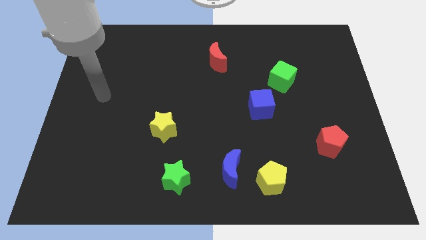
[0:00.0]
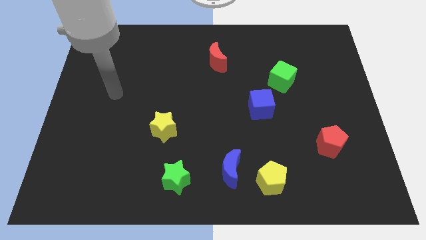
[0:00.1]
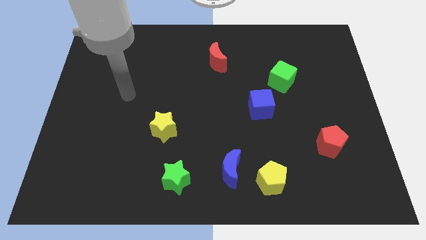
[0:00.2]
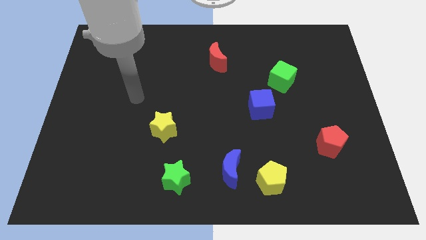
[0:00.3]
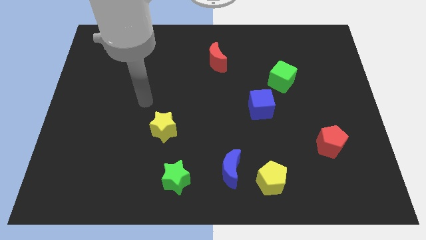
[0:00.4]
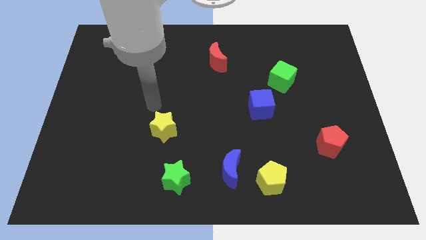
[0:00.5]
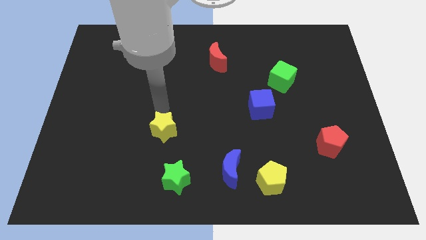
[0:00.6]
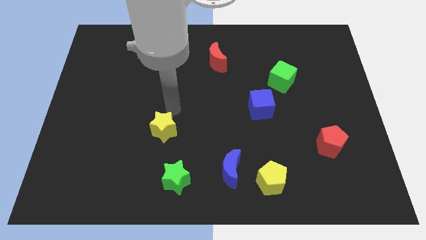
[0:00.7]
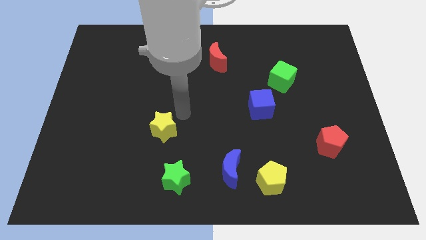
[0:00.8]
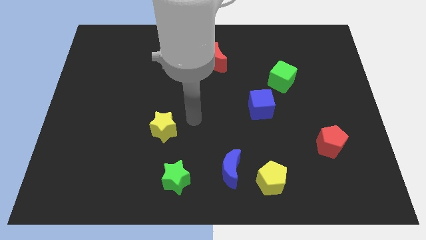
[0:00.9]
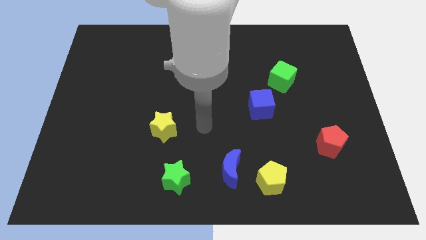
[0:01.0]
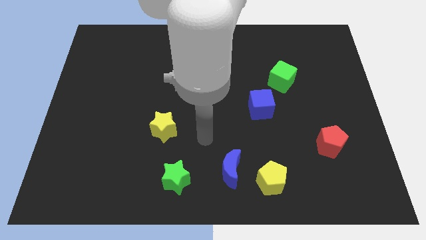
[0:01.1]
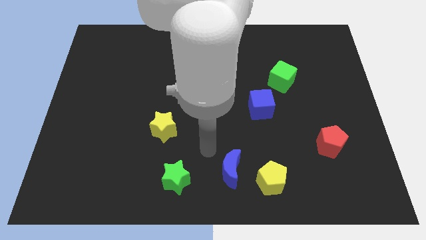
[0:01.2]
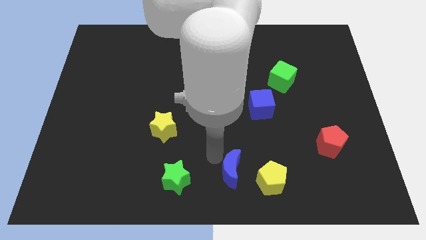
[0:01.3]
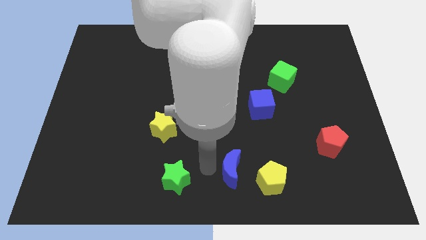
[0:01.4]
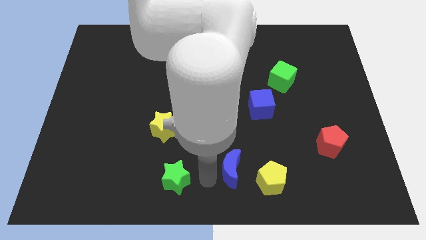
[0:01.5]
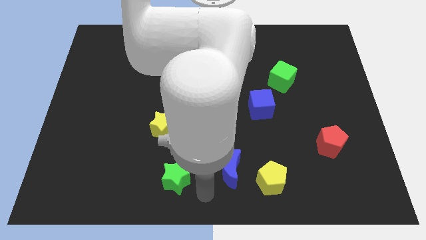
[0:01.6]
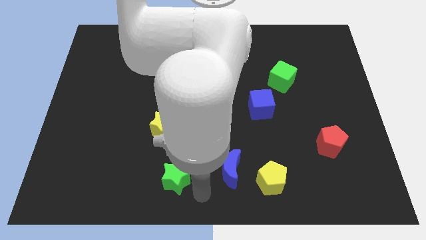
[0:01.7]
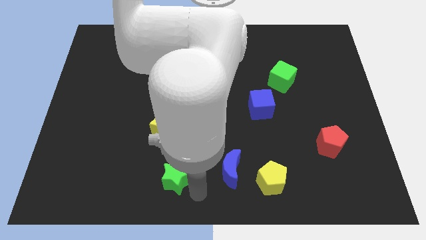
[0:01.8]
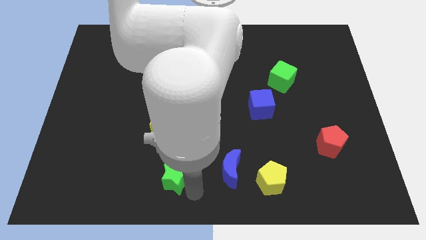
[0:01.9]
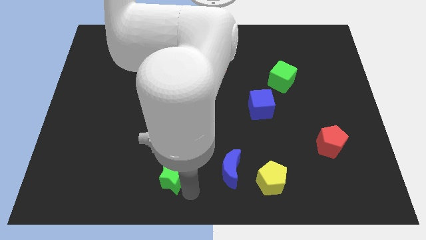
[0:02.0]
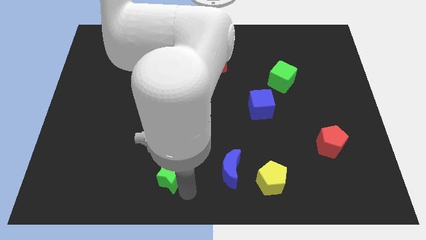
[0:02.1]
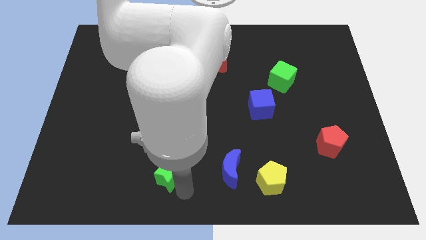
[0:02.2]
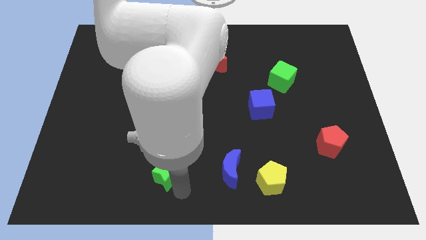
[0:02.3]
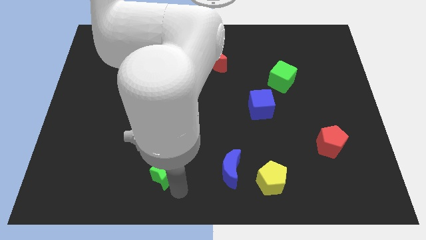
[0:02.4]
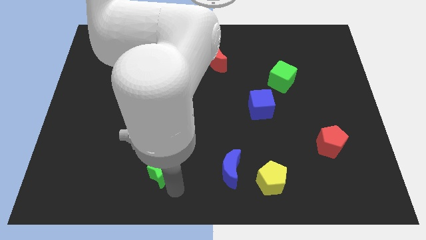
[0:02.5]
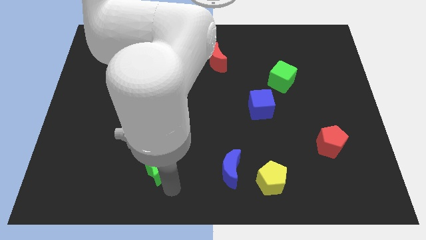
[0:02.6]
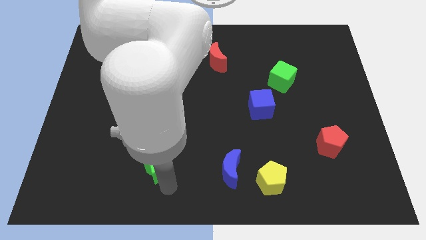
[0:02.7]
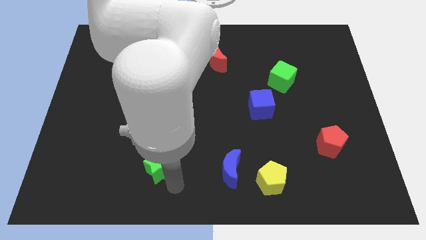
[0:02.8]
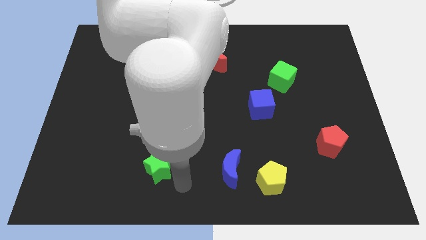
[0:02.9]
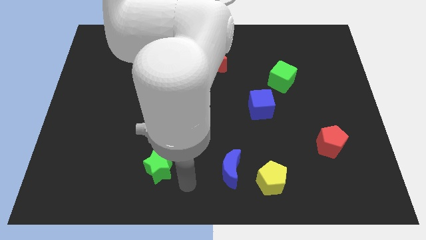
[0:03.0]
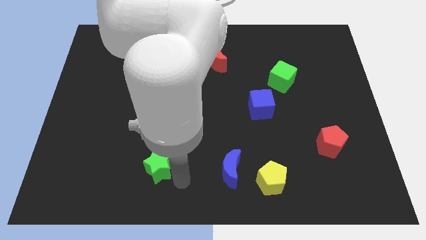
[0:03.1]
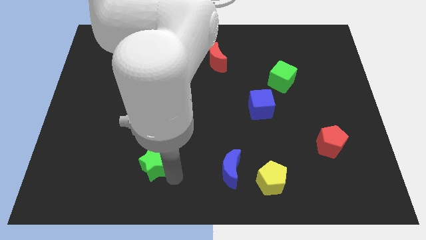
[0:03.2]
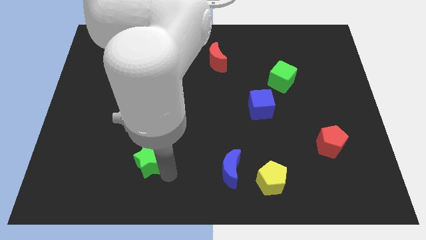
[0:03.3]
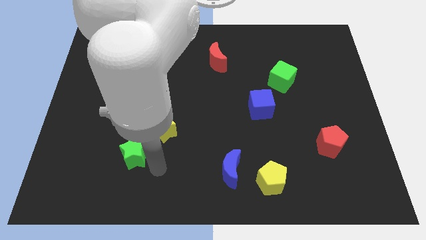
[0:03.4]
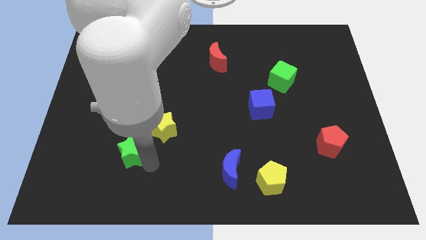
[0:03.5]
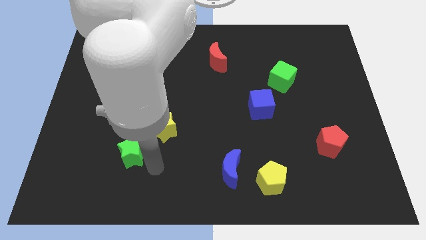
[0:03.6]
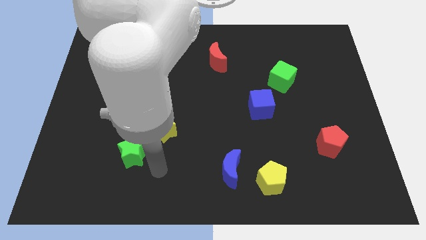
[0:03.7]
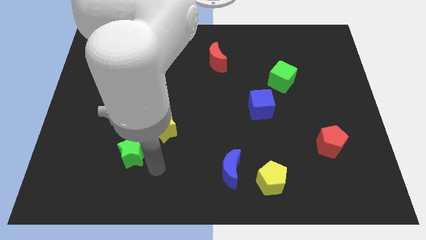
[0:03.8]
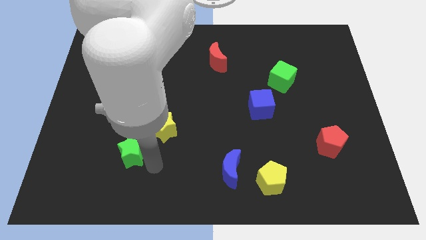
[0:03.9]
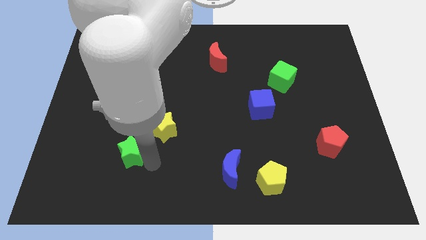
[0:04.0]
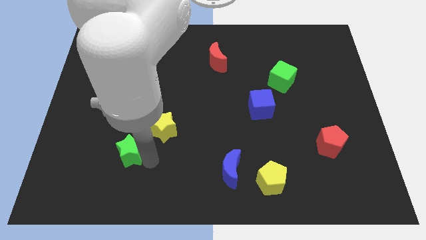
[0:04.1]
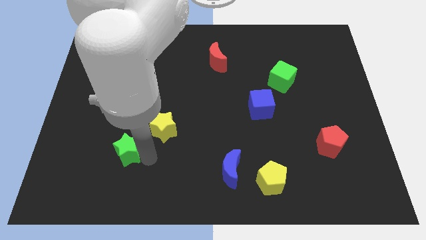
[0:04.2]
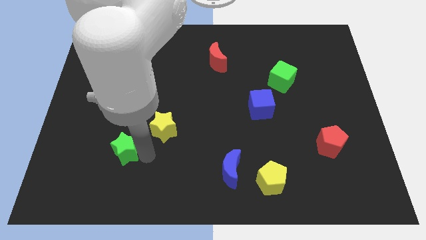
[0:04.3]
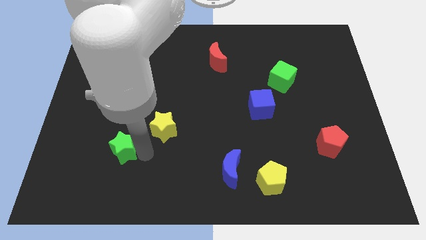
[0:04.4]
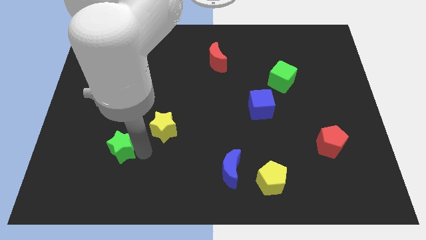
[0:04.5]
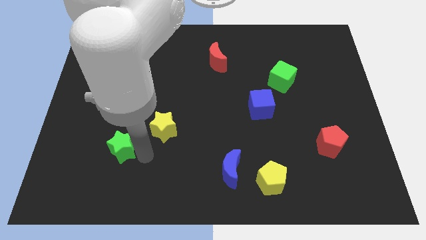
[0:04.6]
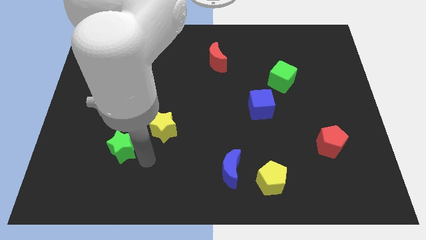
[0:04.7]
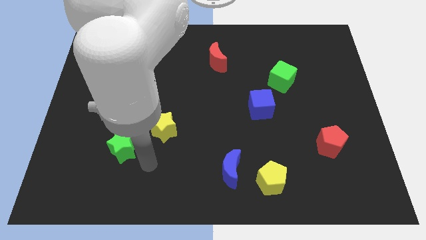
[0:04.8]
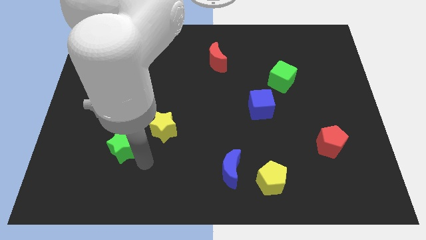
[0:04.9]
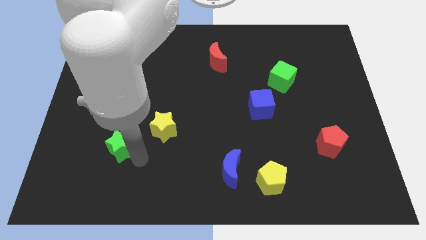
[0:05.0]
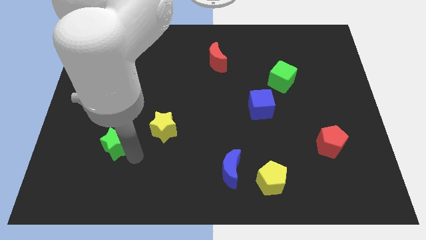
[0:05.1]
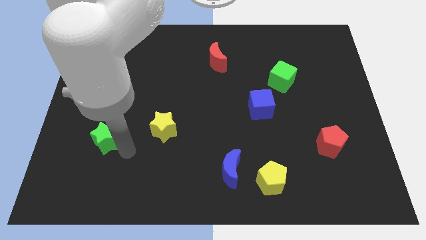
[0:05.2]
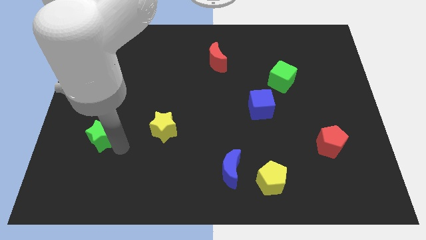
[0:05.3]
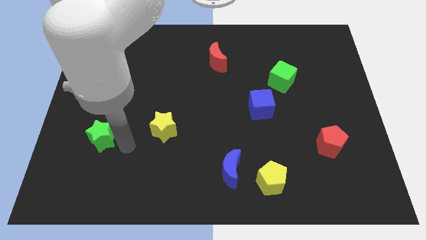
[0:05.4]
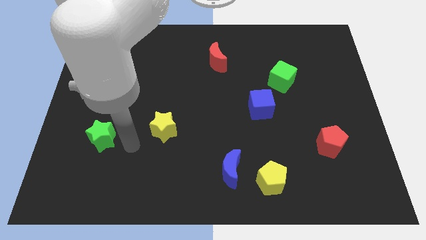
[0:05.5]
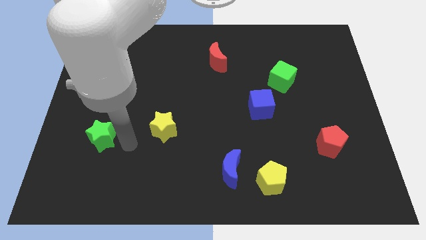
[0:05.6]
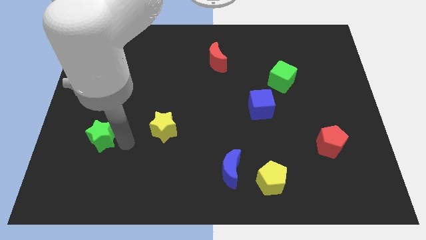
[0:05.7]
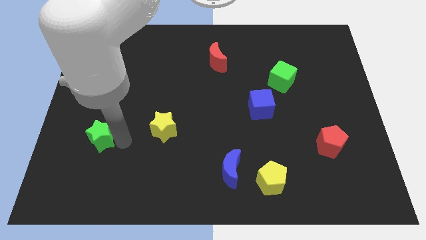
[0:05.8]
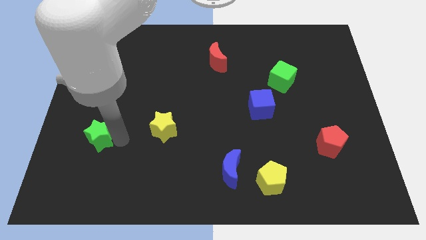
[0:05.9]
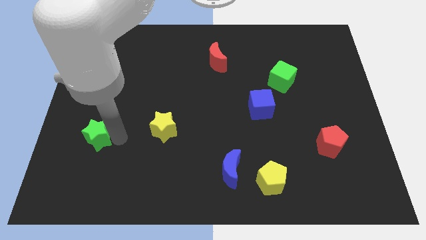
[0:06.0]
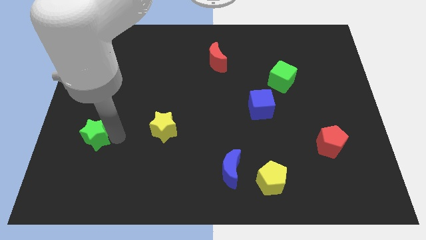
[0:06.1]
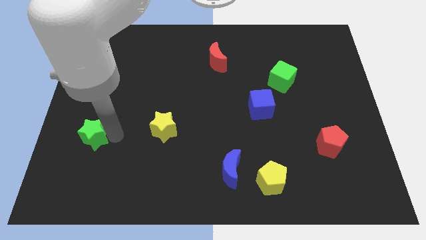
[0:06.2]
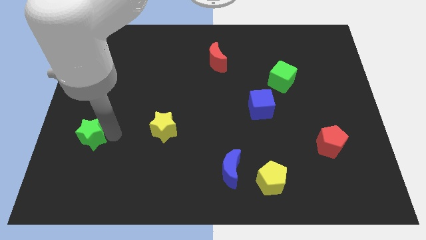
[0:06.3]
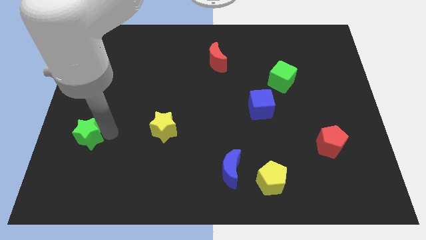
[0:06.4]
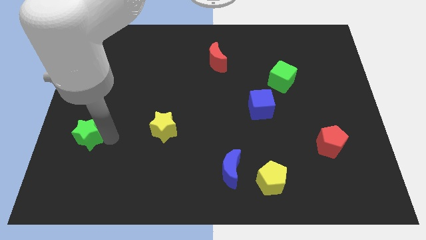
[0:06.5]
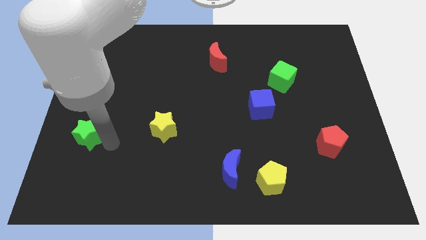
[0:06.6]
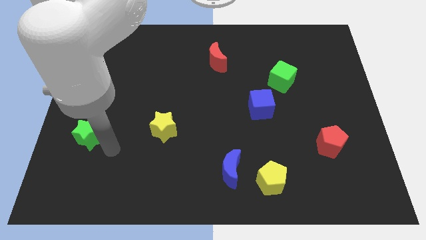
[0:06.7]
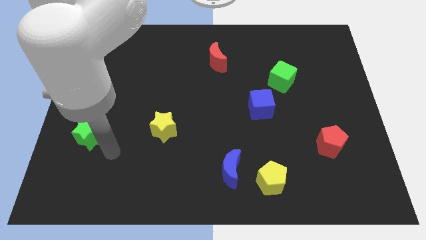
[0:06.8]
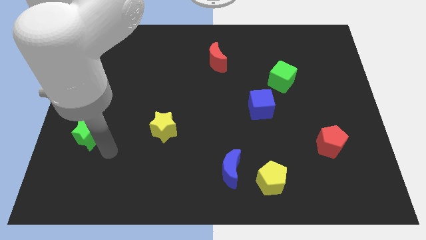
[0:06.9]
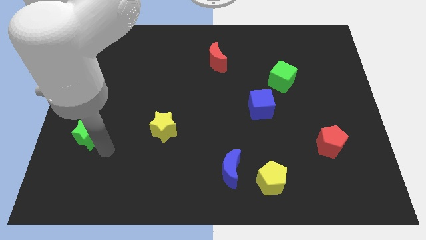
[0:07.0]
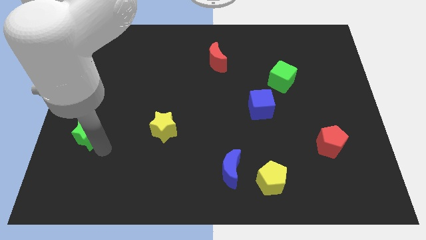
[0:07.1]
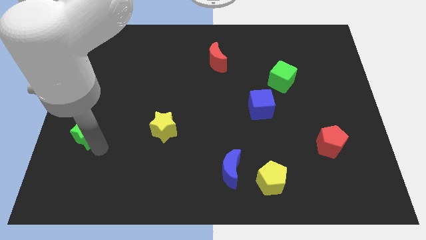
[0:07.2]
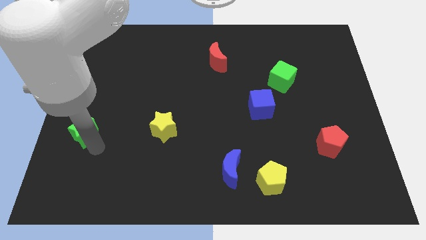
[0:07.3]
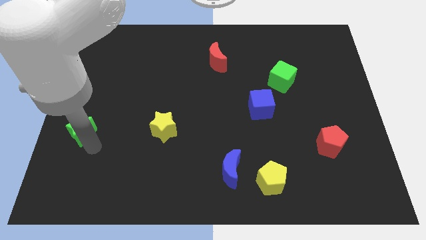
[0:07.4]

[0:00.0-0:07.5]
push the green star to the center left
